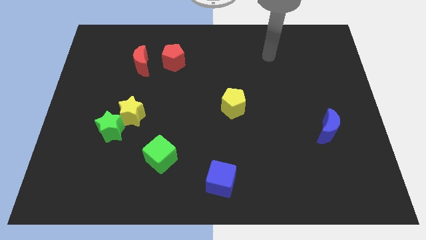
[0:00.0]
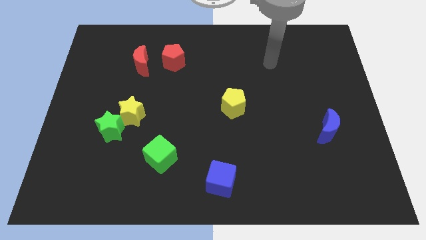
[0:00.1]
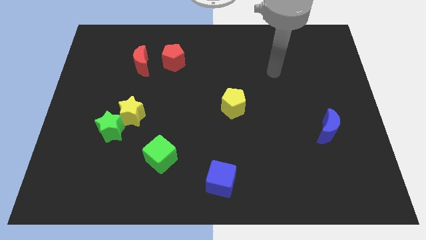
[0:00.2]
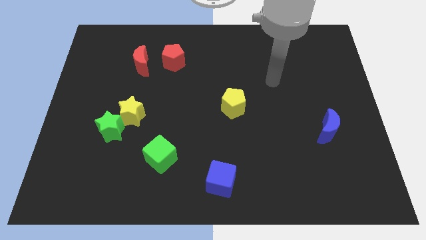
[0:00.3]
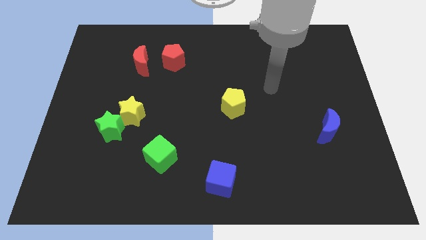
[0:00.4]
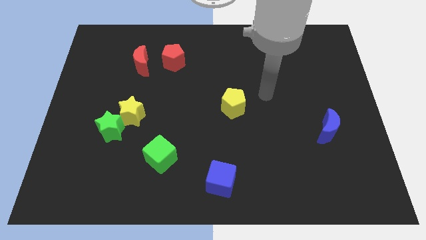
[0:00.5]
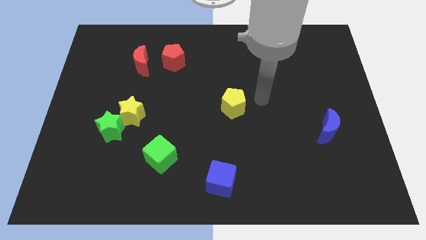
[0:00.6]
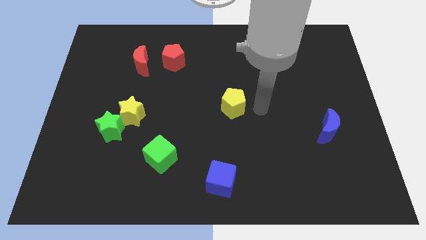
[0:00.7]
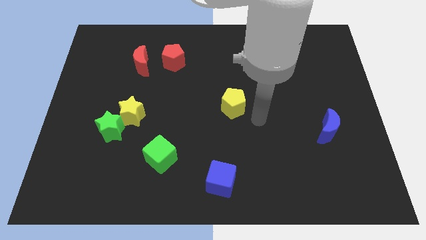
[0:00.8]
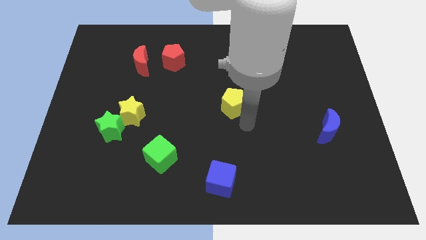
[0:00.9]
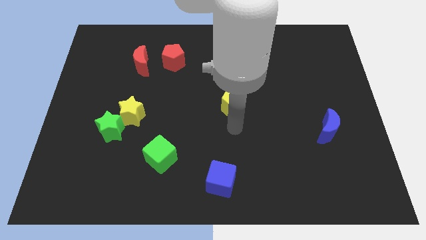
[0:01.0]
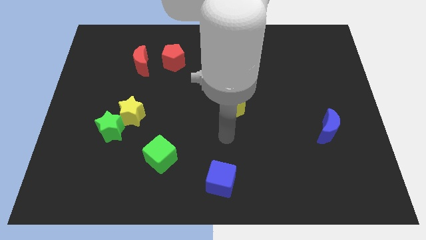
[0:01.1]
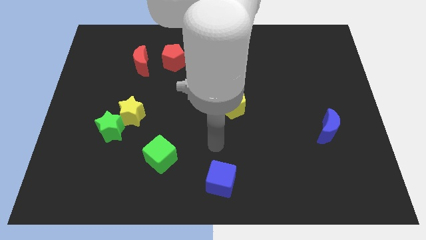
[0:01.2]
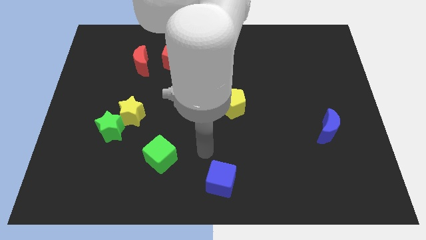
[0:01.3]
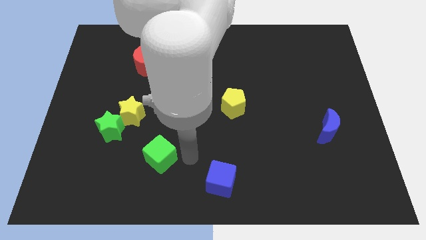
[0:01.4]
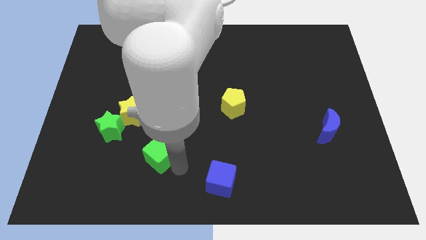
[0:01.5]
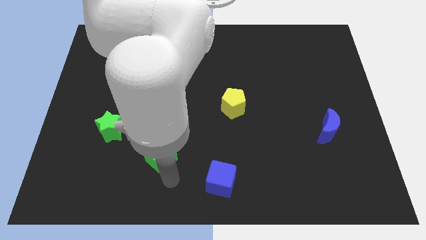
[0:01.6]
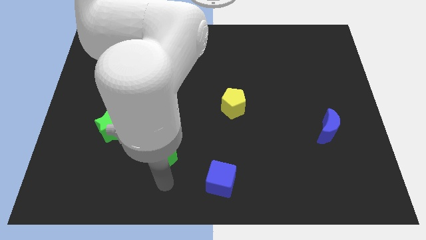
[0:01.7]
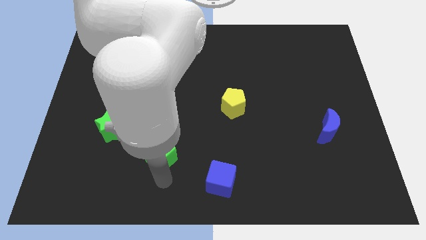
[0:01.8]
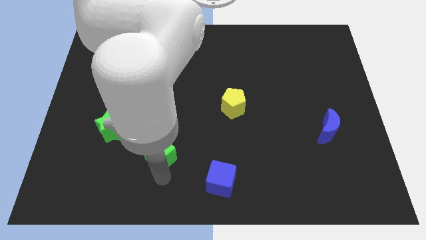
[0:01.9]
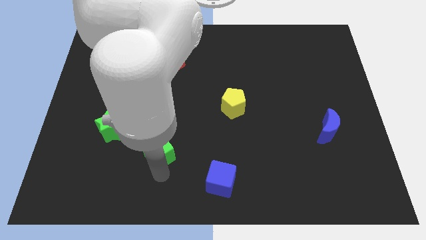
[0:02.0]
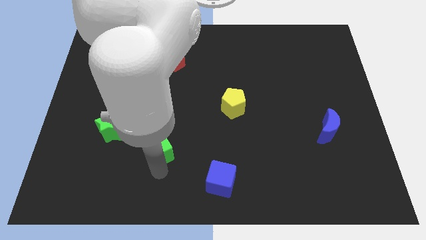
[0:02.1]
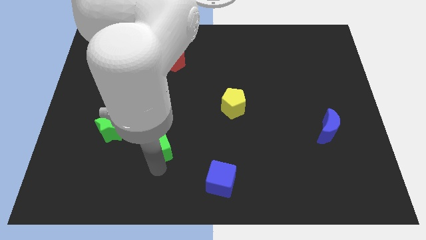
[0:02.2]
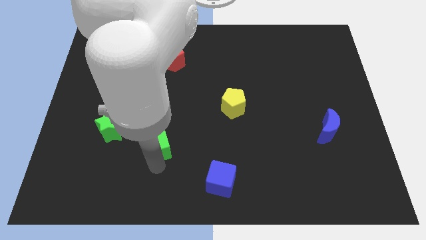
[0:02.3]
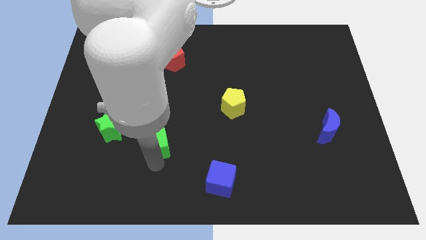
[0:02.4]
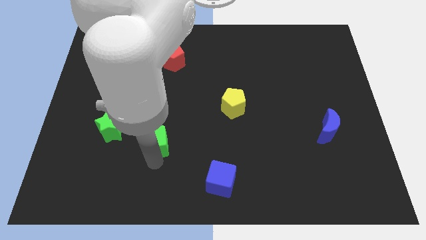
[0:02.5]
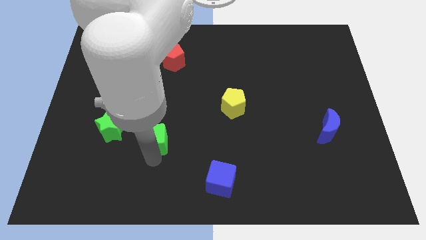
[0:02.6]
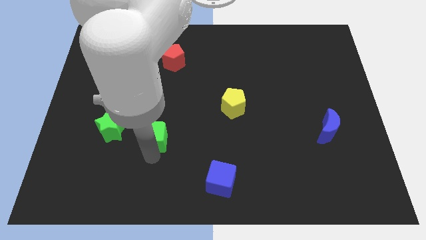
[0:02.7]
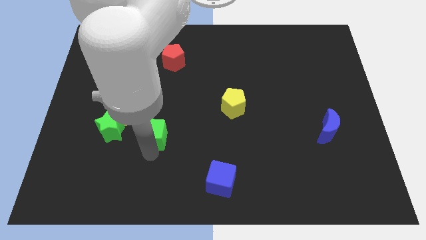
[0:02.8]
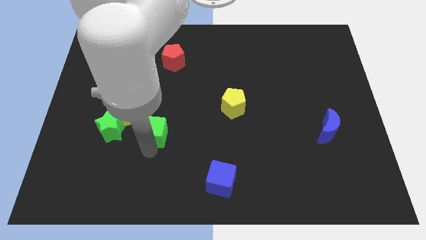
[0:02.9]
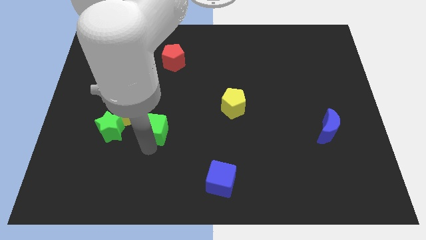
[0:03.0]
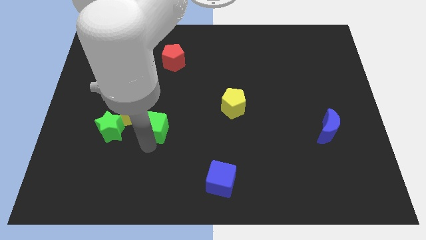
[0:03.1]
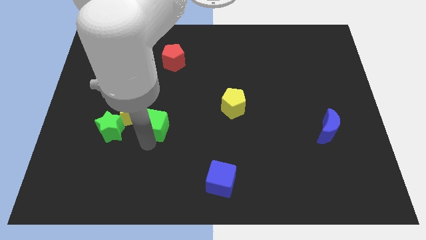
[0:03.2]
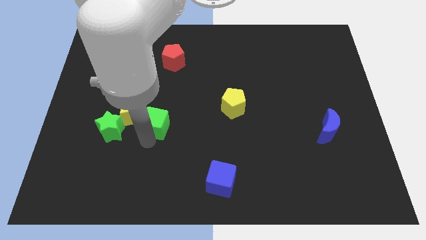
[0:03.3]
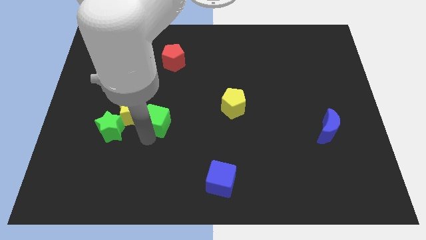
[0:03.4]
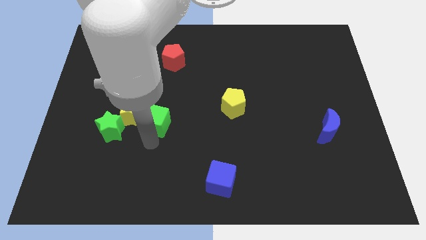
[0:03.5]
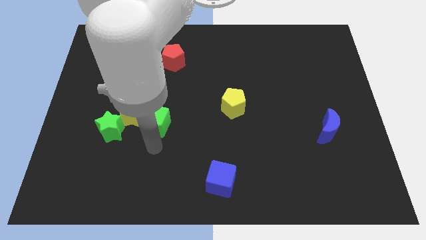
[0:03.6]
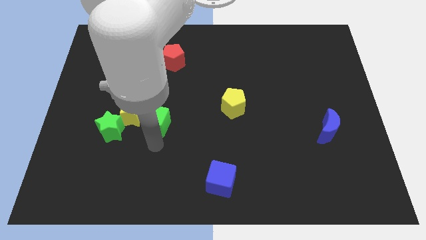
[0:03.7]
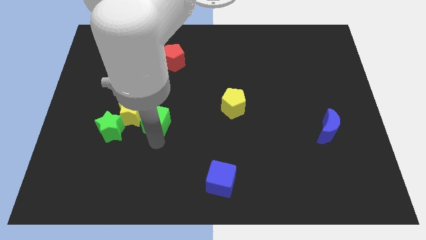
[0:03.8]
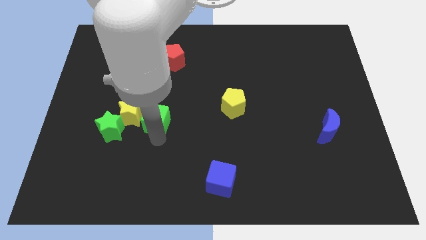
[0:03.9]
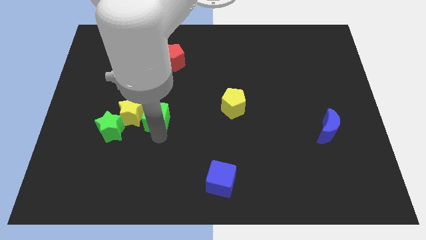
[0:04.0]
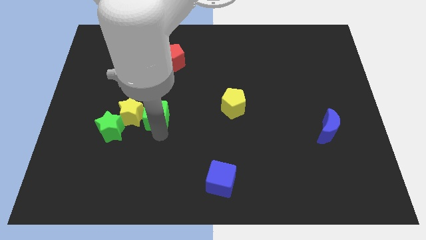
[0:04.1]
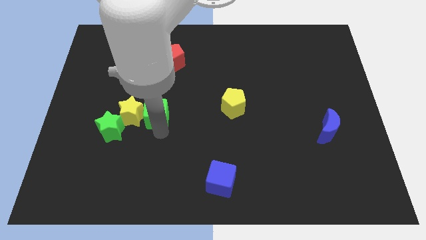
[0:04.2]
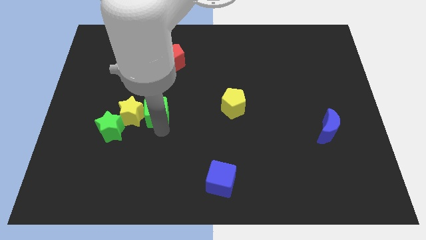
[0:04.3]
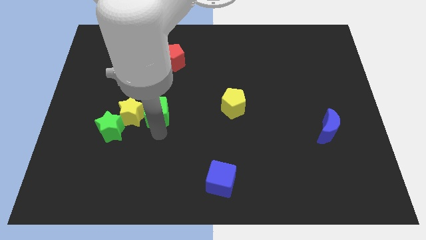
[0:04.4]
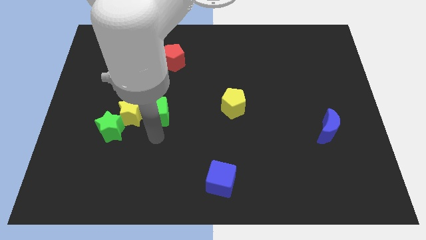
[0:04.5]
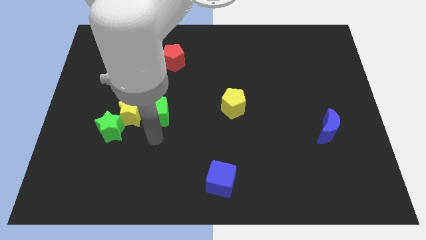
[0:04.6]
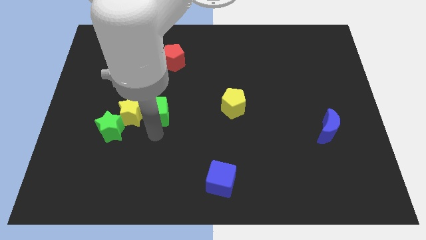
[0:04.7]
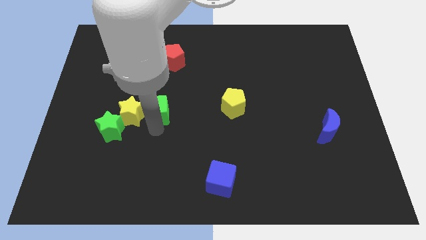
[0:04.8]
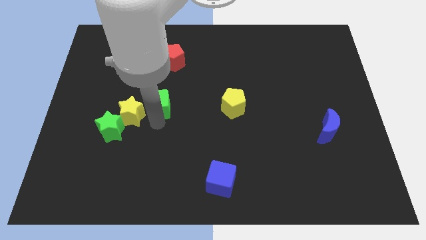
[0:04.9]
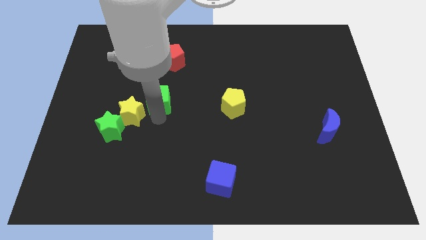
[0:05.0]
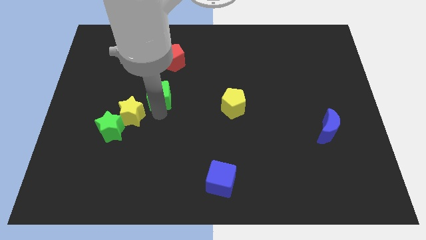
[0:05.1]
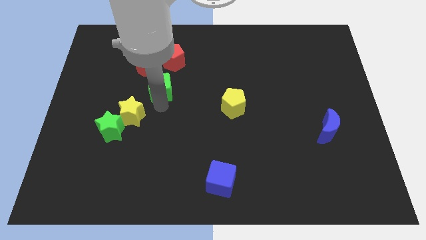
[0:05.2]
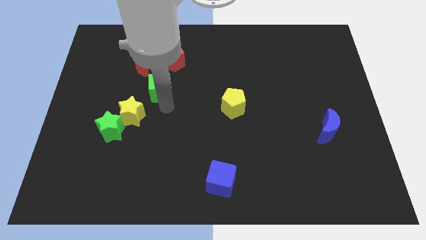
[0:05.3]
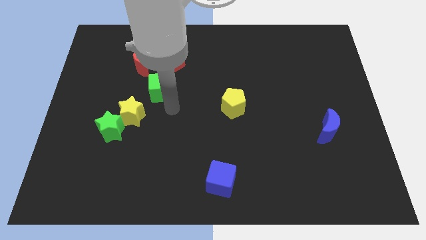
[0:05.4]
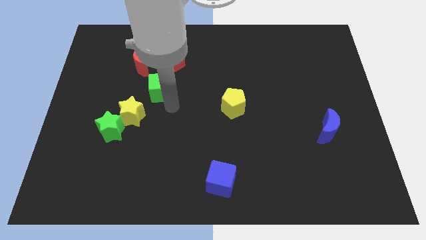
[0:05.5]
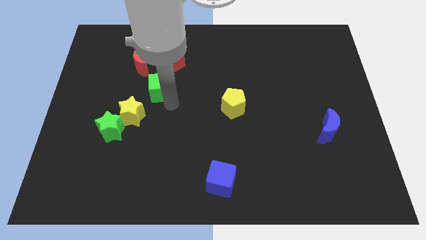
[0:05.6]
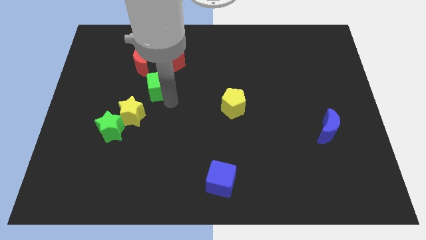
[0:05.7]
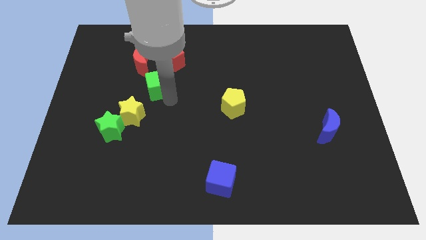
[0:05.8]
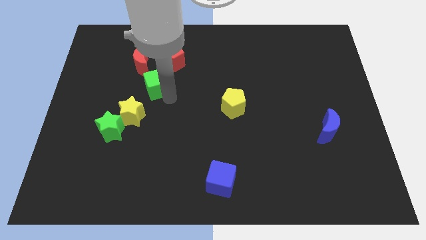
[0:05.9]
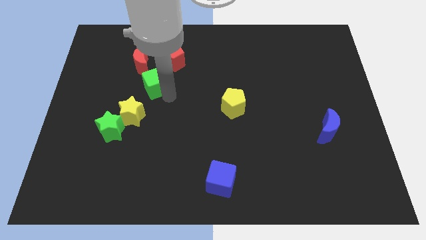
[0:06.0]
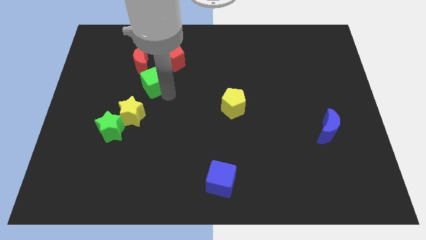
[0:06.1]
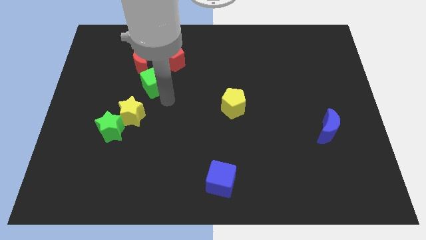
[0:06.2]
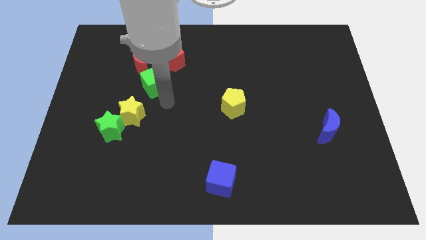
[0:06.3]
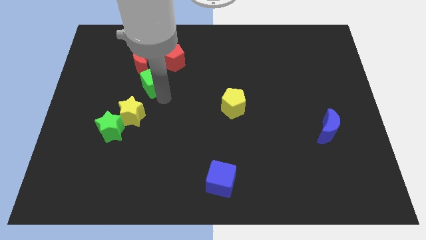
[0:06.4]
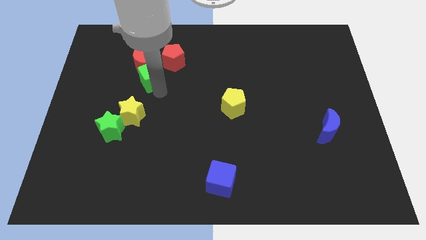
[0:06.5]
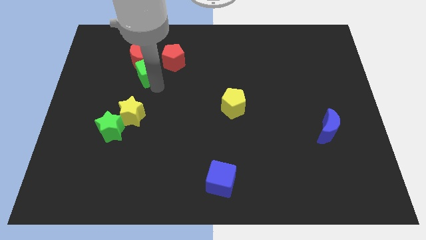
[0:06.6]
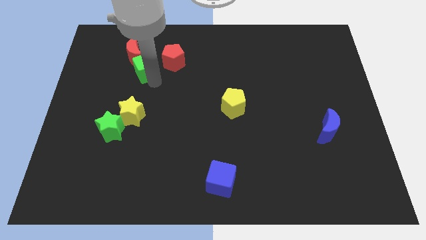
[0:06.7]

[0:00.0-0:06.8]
put the green cube next to the red moon
